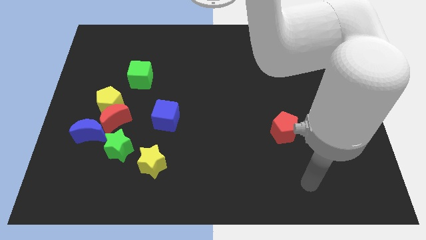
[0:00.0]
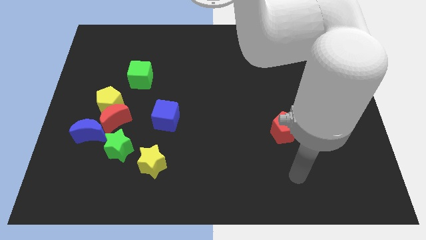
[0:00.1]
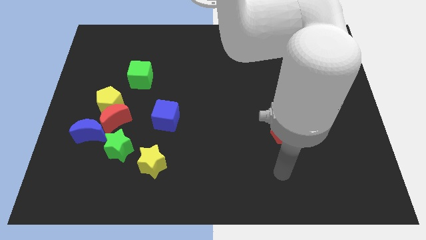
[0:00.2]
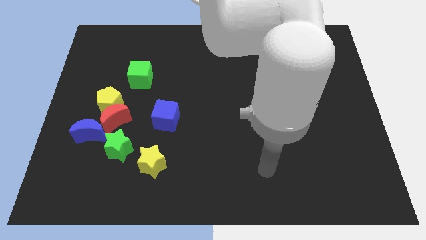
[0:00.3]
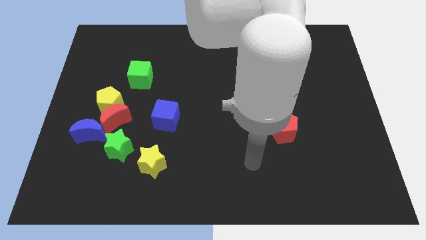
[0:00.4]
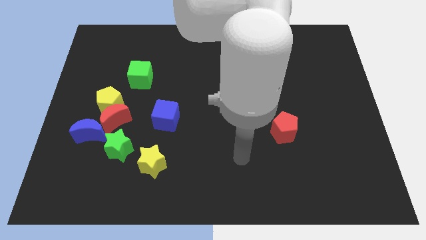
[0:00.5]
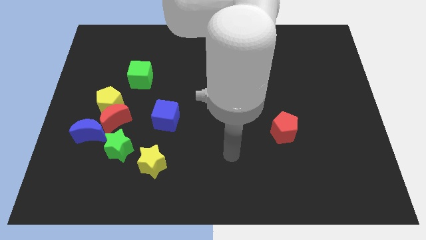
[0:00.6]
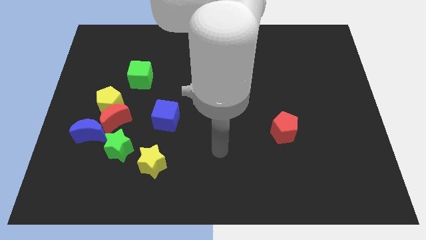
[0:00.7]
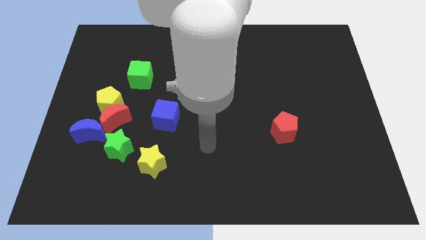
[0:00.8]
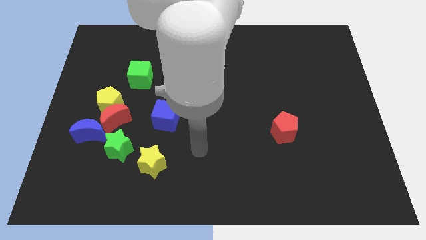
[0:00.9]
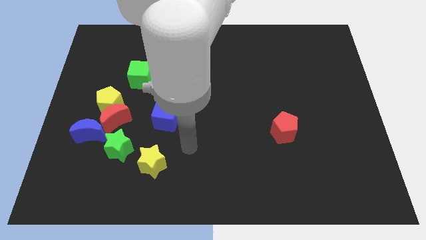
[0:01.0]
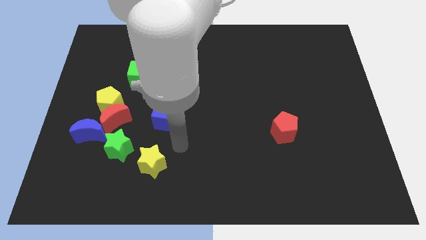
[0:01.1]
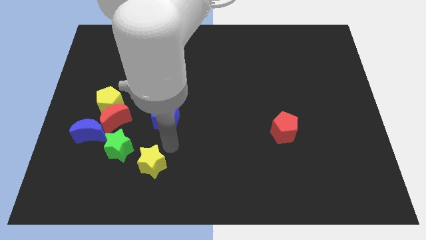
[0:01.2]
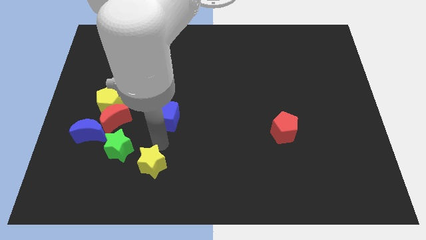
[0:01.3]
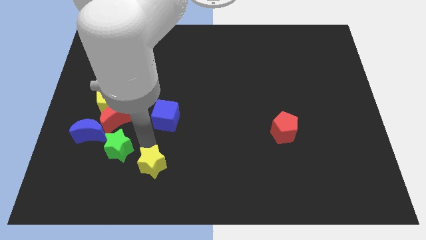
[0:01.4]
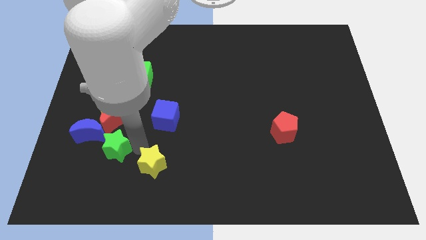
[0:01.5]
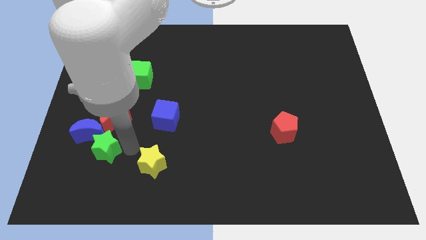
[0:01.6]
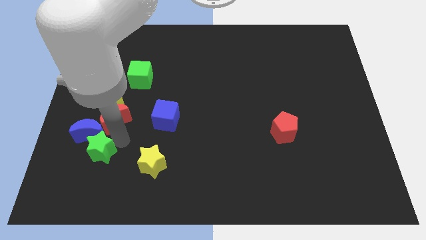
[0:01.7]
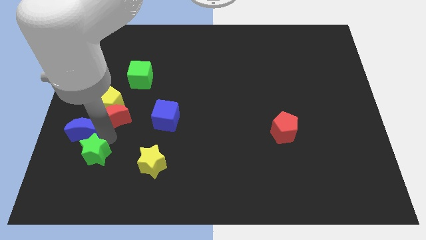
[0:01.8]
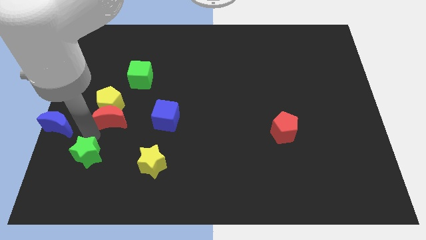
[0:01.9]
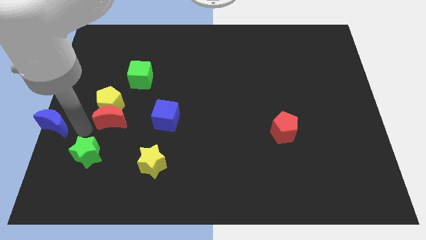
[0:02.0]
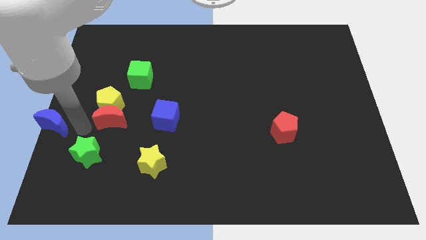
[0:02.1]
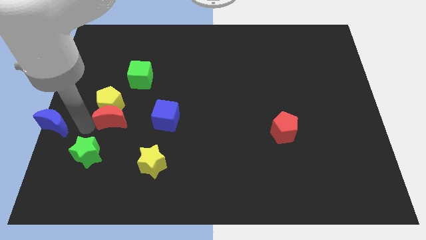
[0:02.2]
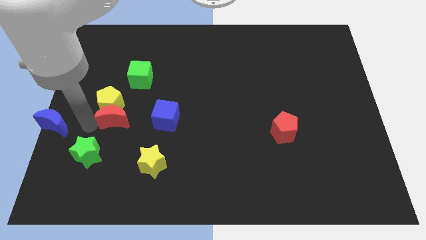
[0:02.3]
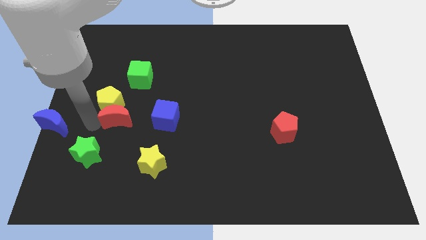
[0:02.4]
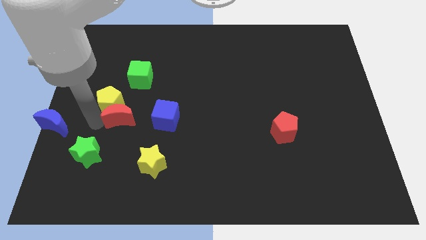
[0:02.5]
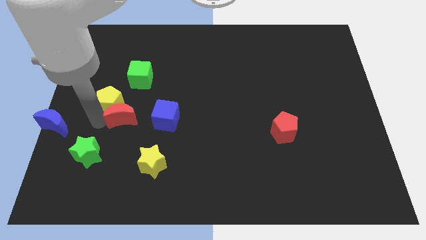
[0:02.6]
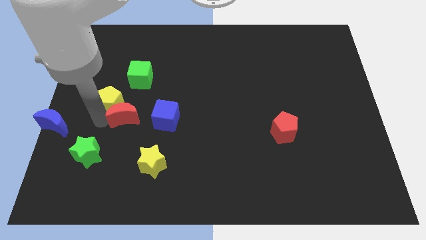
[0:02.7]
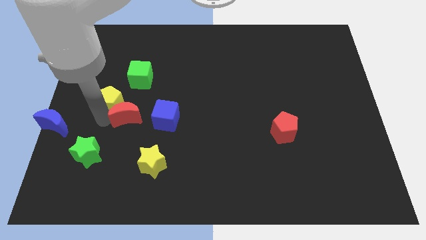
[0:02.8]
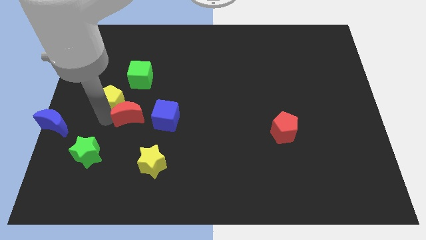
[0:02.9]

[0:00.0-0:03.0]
pull the red moon apart from the yellow pentagon, blue moon, and green star

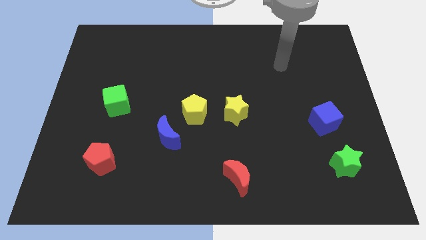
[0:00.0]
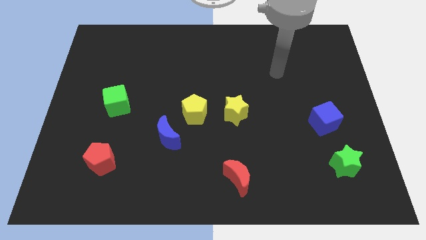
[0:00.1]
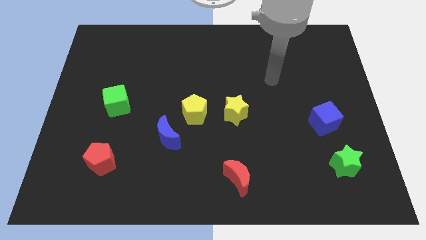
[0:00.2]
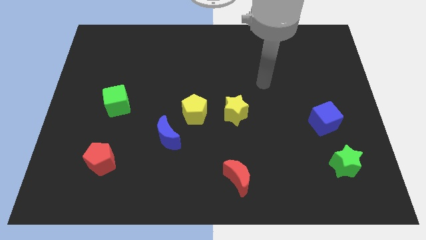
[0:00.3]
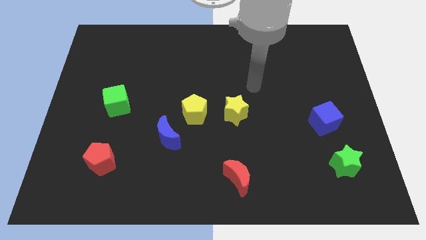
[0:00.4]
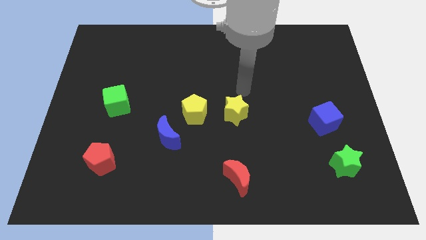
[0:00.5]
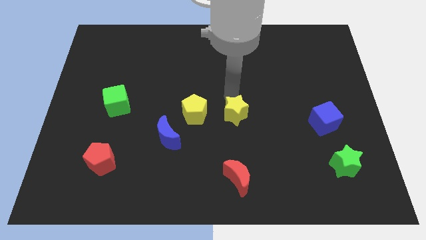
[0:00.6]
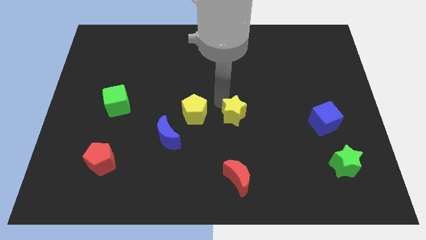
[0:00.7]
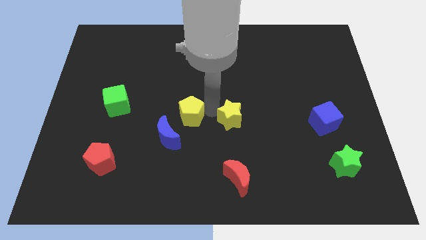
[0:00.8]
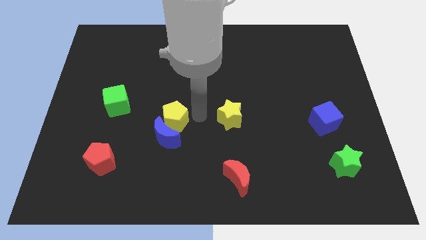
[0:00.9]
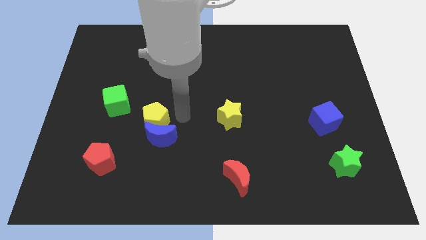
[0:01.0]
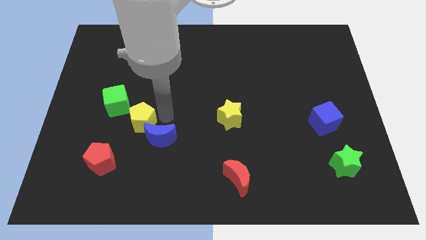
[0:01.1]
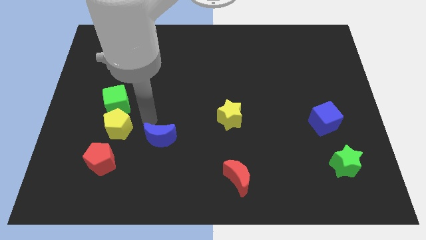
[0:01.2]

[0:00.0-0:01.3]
pull the blue moon apart from the yellow pentagon

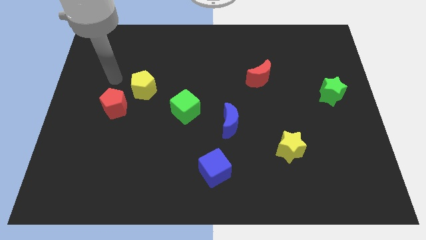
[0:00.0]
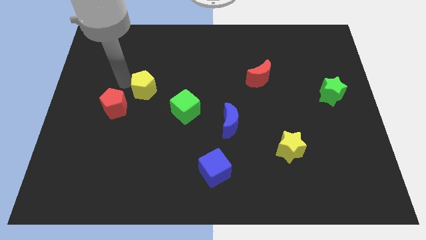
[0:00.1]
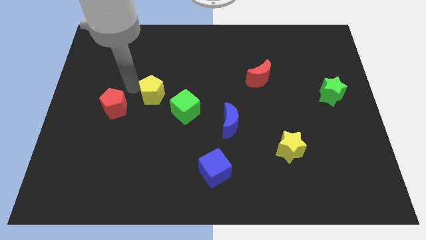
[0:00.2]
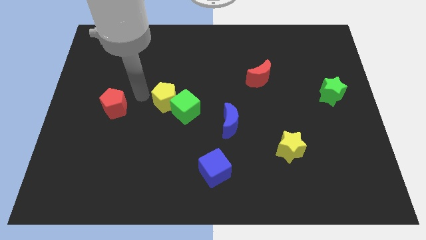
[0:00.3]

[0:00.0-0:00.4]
separate the red pentagon from the yellow pentagon

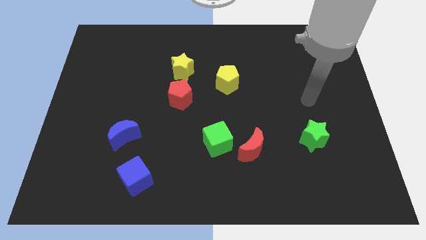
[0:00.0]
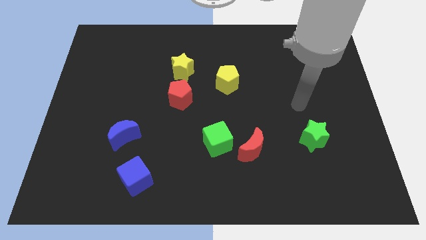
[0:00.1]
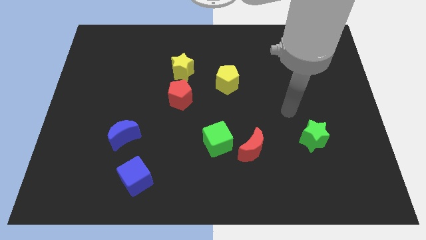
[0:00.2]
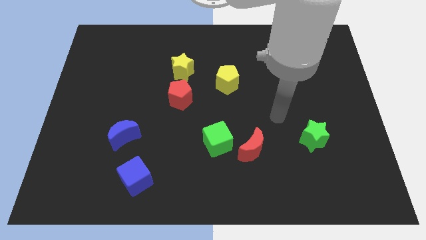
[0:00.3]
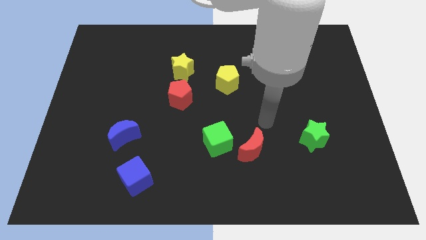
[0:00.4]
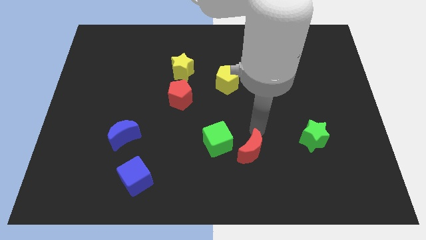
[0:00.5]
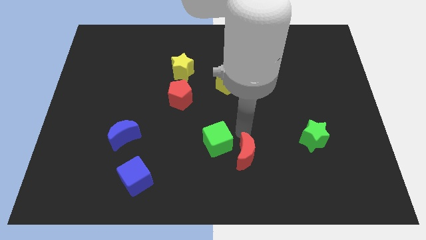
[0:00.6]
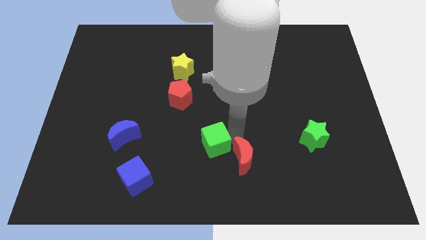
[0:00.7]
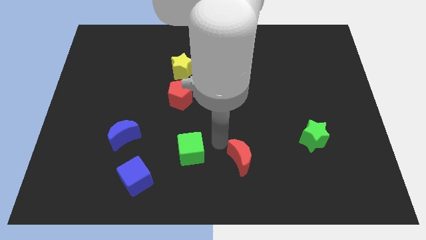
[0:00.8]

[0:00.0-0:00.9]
move the red moon away from the green cube

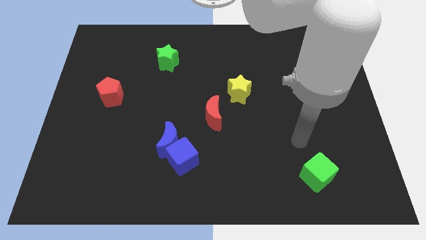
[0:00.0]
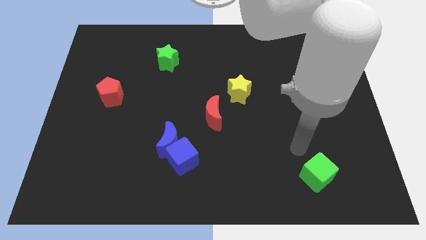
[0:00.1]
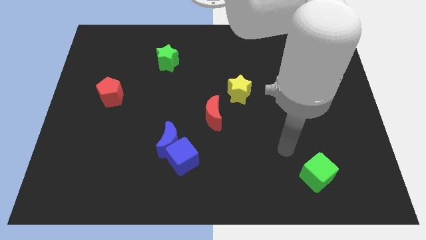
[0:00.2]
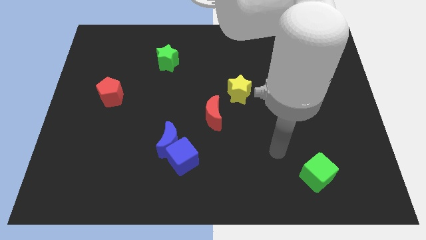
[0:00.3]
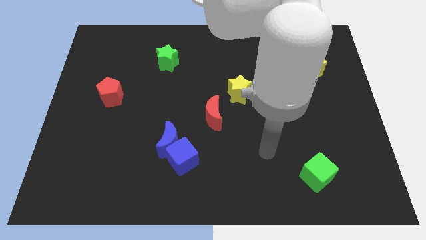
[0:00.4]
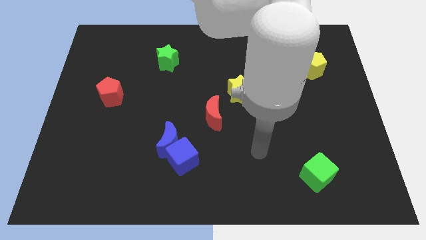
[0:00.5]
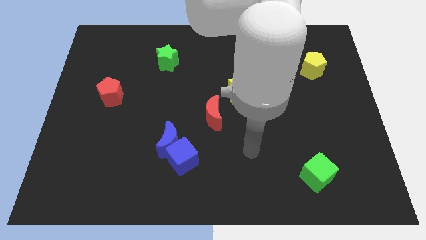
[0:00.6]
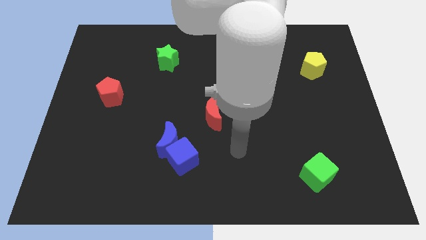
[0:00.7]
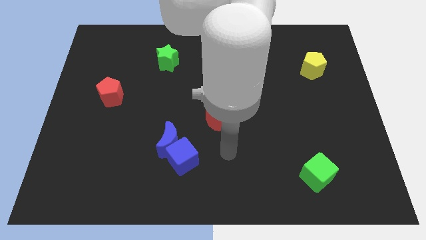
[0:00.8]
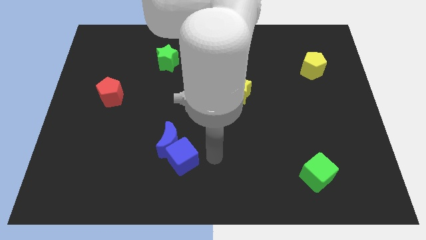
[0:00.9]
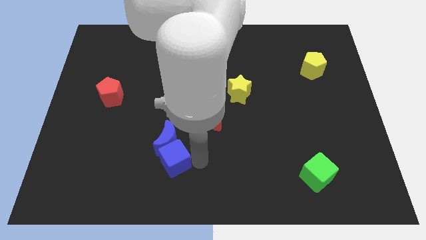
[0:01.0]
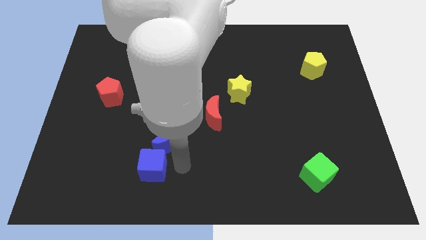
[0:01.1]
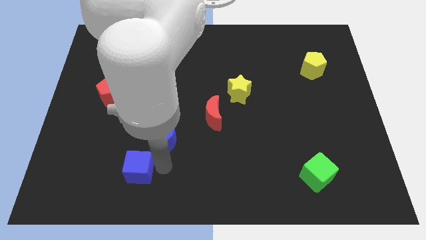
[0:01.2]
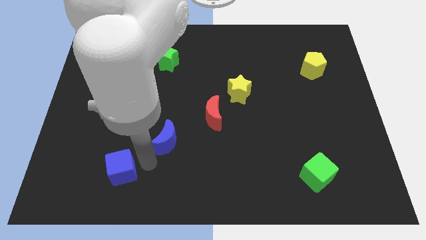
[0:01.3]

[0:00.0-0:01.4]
pull the blue moon apart from the blue cube

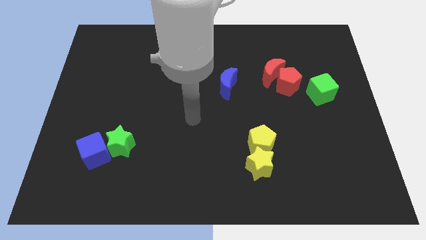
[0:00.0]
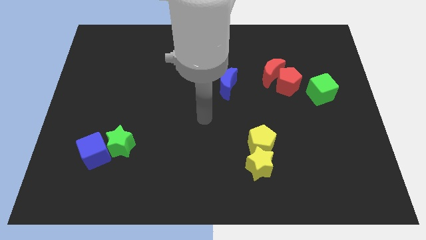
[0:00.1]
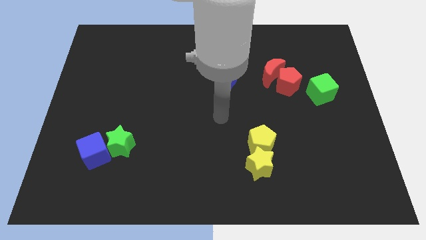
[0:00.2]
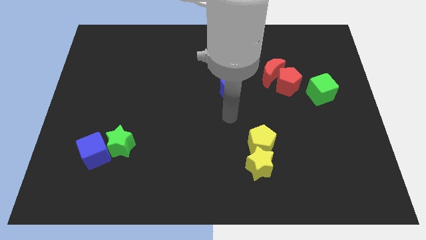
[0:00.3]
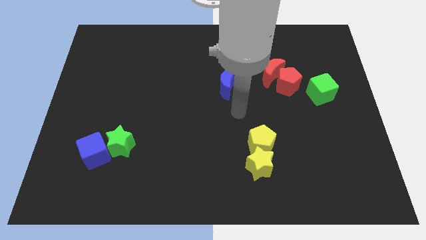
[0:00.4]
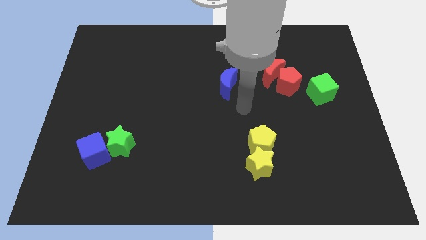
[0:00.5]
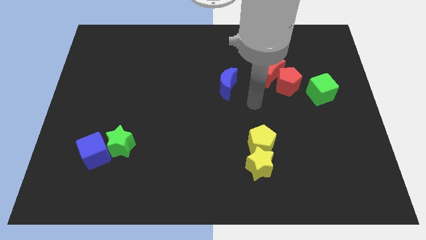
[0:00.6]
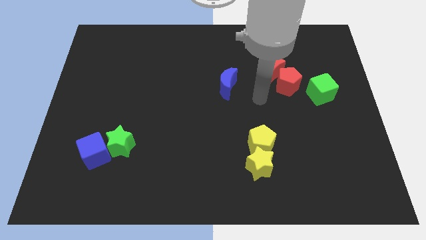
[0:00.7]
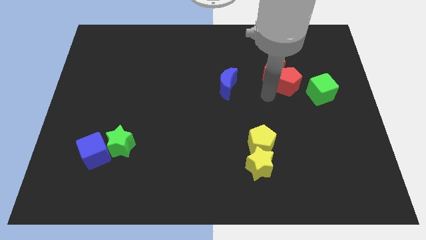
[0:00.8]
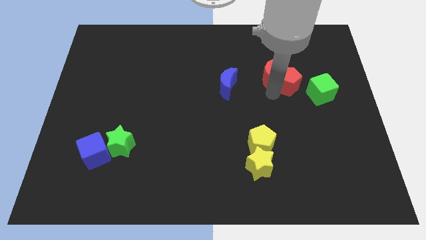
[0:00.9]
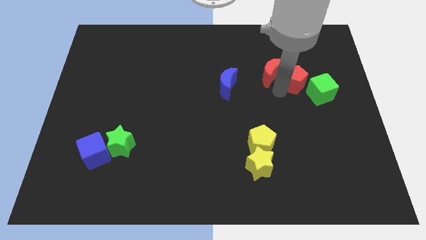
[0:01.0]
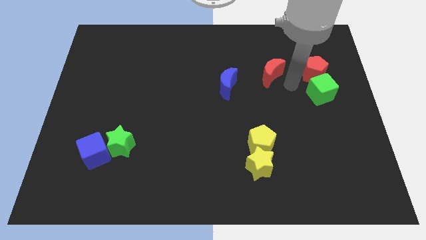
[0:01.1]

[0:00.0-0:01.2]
separate the red moon from the red pentagon

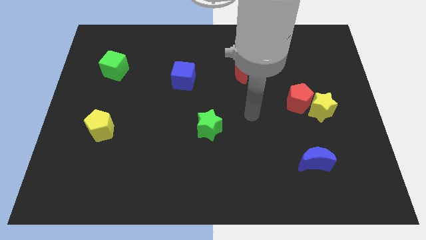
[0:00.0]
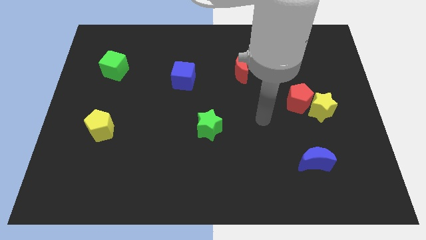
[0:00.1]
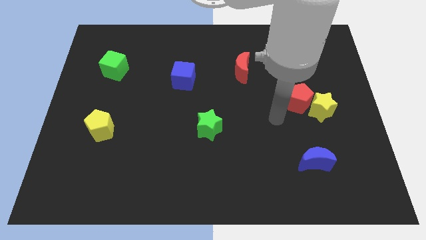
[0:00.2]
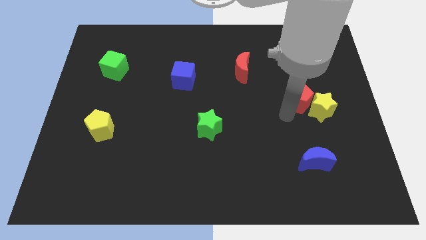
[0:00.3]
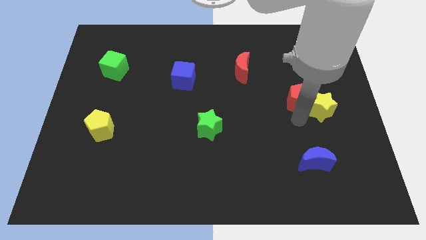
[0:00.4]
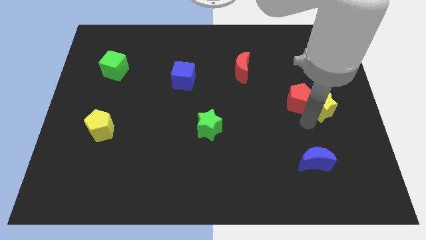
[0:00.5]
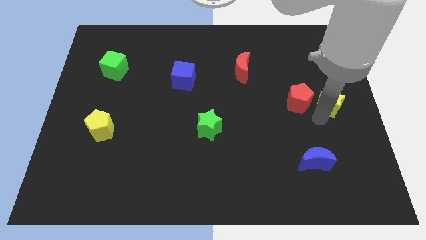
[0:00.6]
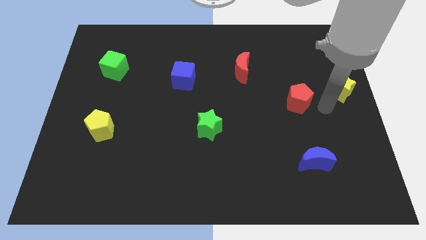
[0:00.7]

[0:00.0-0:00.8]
move the red pentagon away from the yellow star

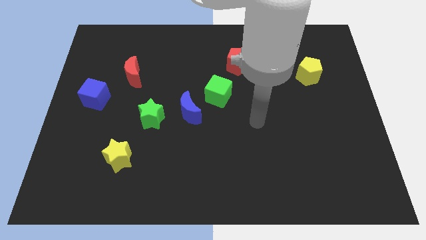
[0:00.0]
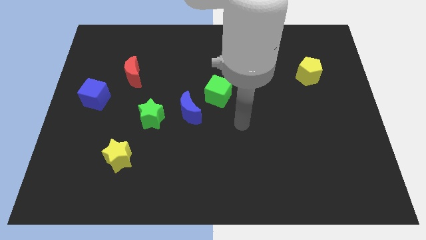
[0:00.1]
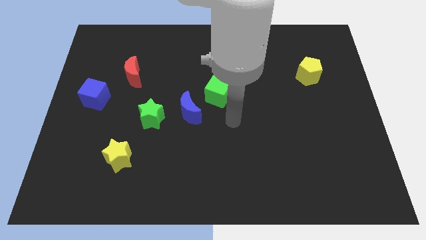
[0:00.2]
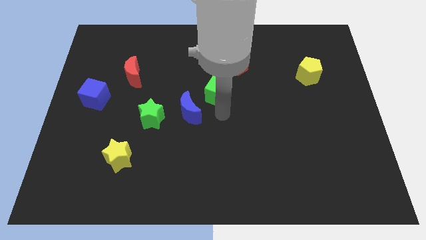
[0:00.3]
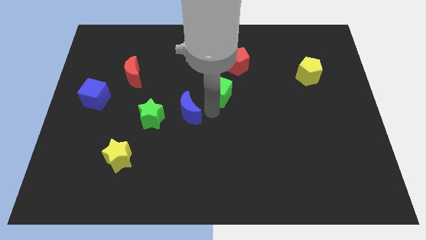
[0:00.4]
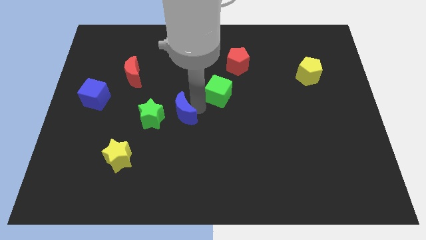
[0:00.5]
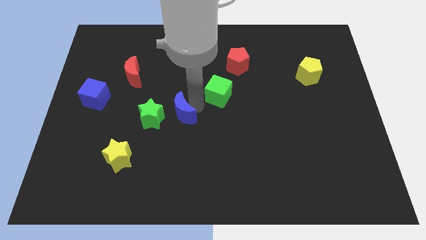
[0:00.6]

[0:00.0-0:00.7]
pull the green cube apart from the blue moon
